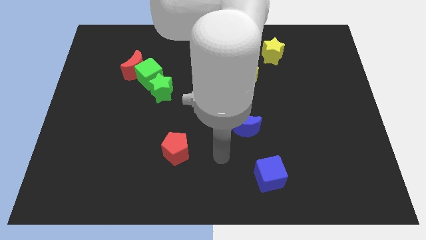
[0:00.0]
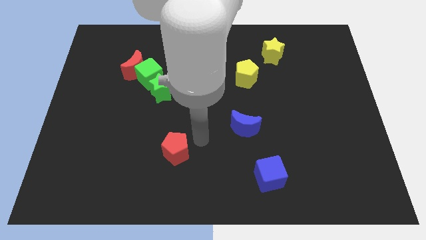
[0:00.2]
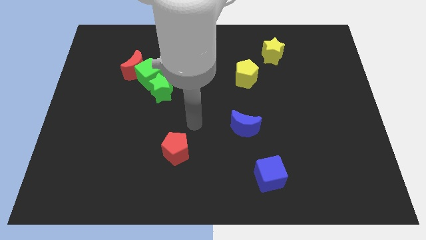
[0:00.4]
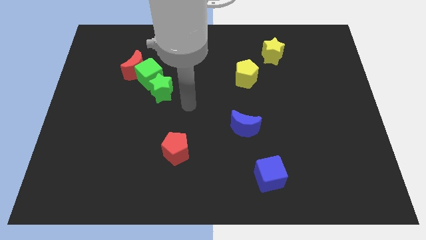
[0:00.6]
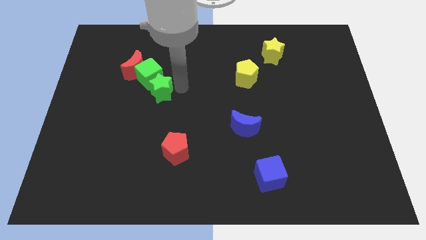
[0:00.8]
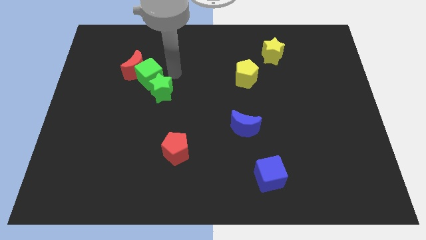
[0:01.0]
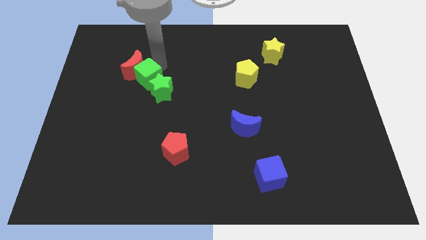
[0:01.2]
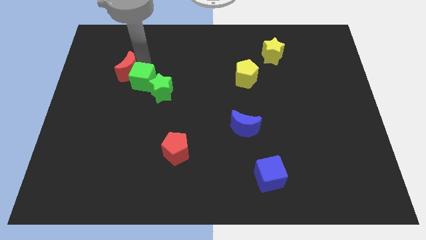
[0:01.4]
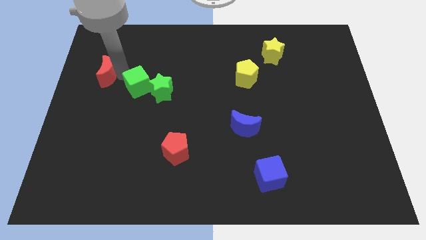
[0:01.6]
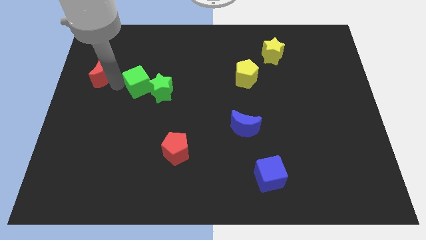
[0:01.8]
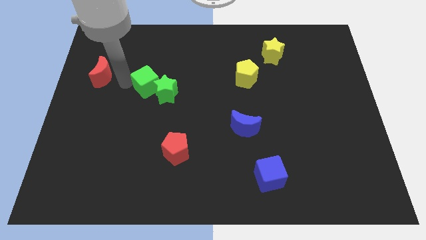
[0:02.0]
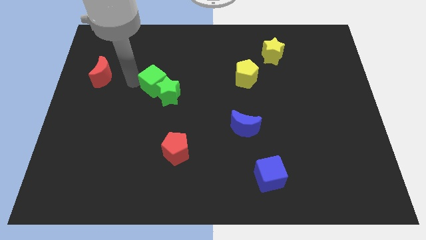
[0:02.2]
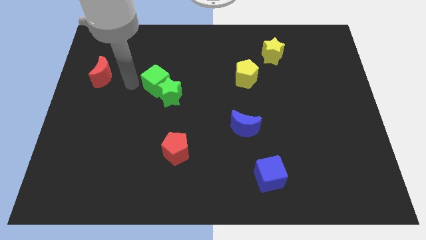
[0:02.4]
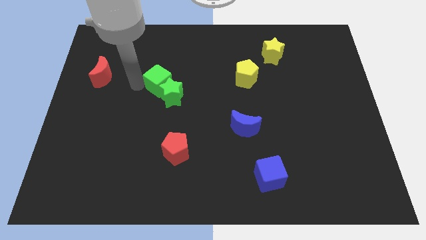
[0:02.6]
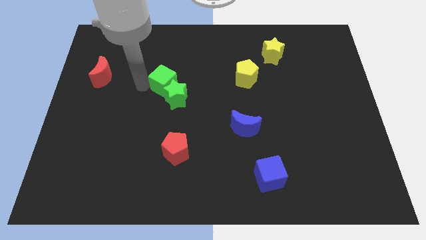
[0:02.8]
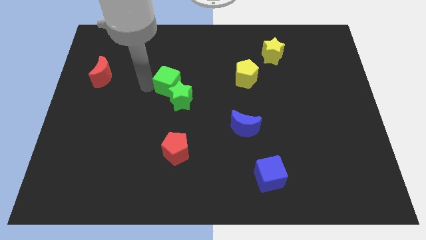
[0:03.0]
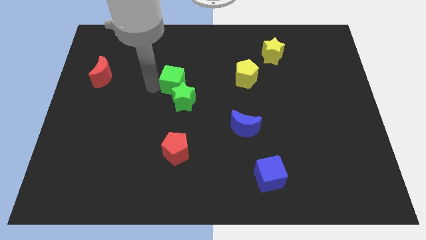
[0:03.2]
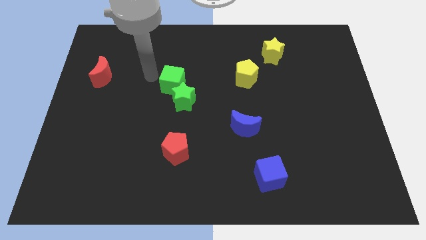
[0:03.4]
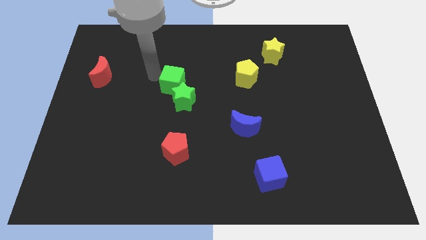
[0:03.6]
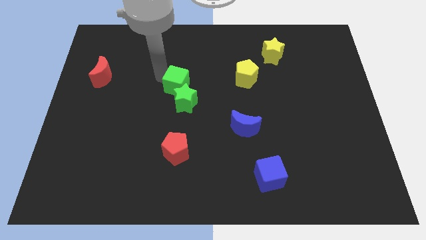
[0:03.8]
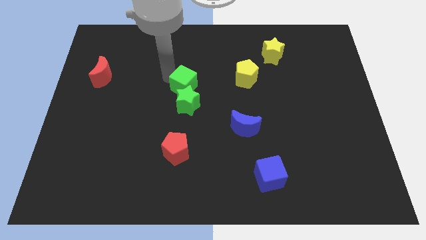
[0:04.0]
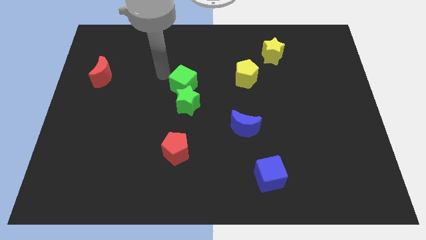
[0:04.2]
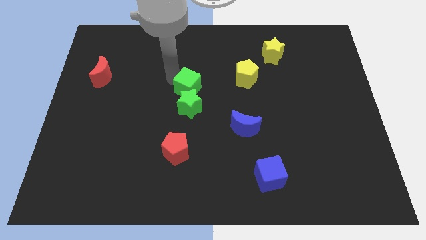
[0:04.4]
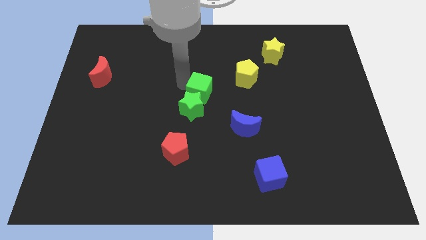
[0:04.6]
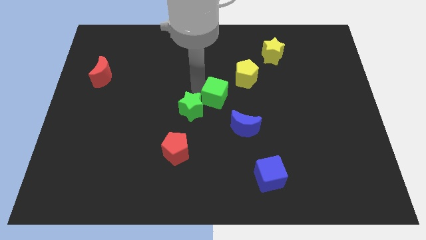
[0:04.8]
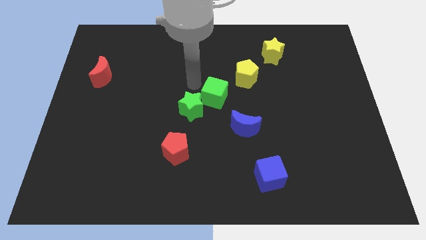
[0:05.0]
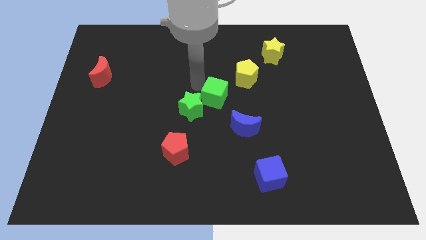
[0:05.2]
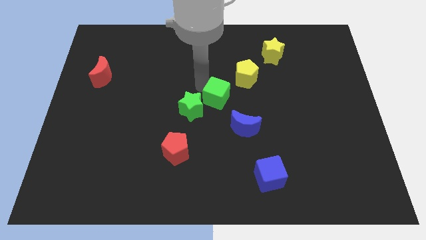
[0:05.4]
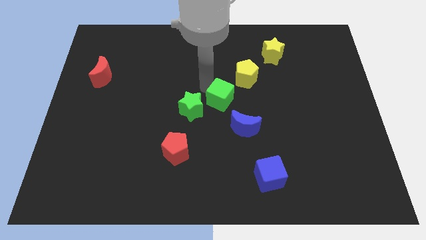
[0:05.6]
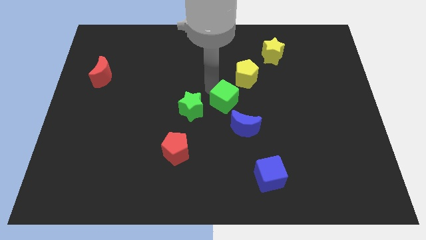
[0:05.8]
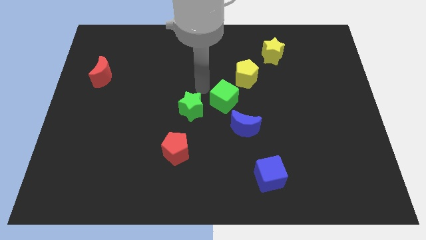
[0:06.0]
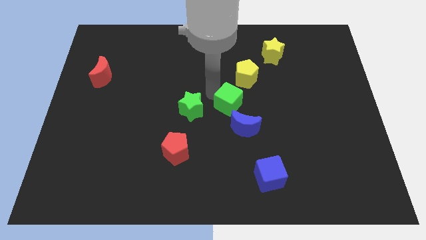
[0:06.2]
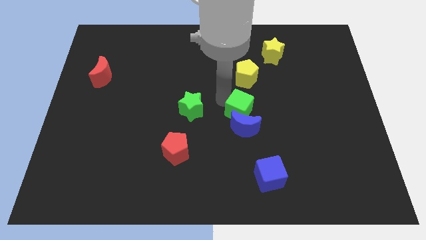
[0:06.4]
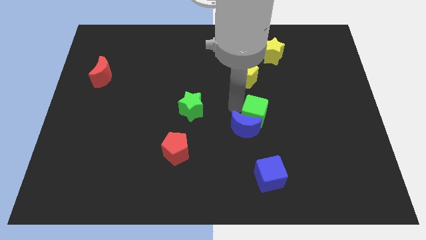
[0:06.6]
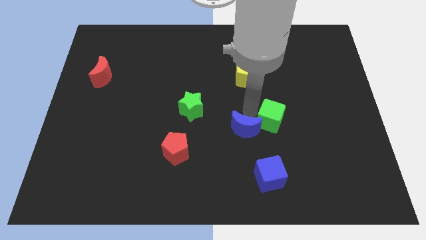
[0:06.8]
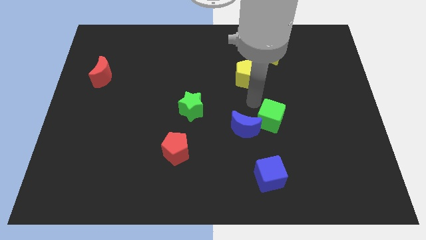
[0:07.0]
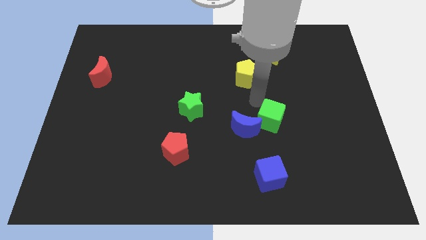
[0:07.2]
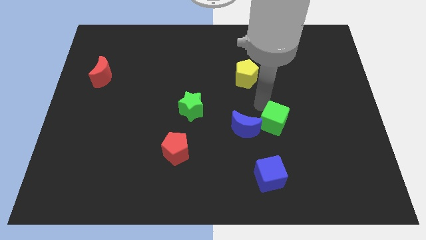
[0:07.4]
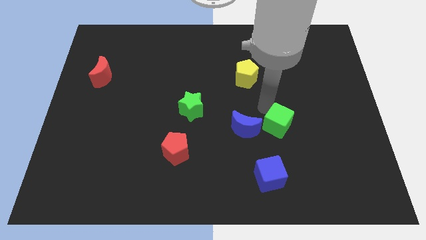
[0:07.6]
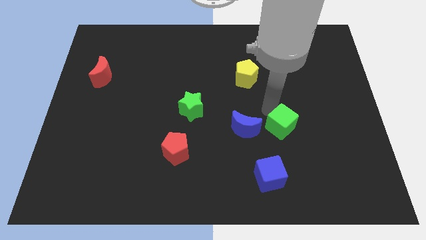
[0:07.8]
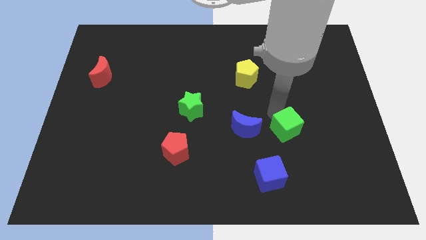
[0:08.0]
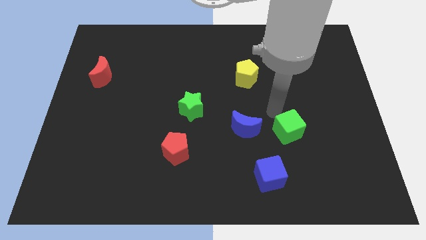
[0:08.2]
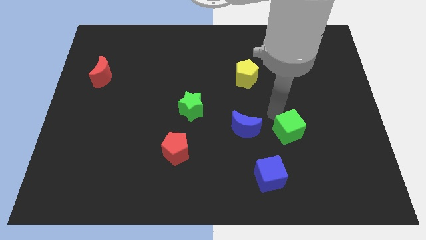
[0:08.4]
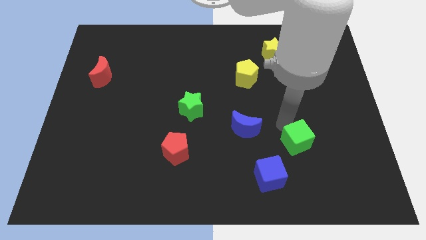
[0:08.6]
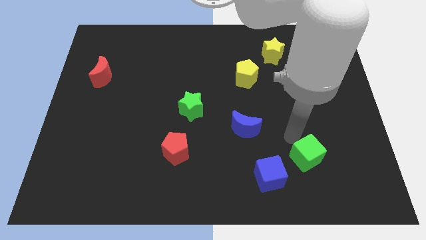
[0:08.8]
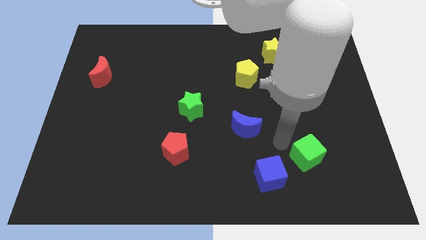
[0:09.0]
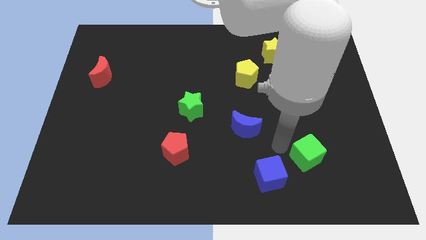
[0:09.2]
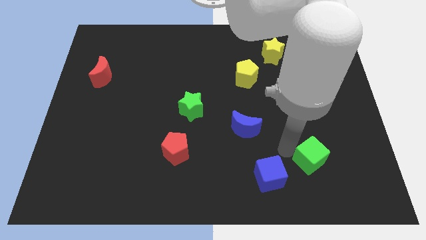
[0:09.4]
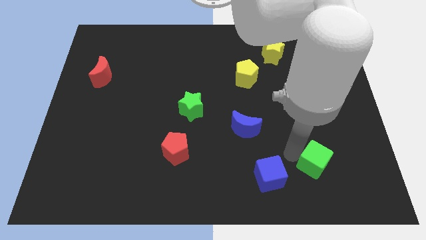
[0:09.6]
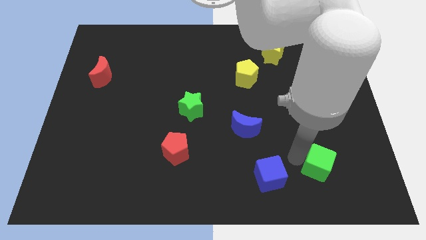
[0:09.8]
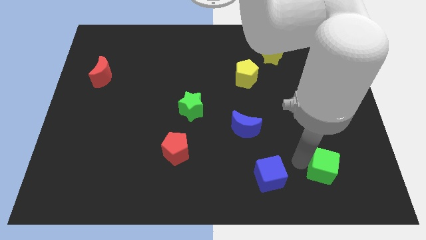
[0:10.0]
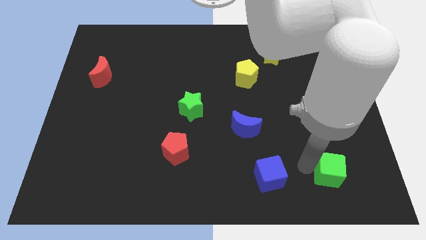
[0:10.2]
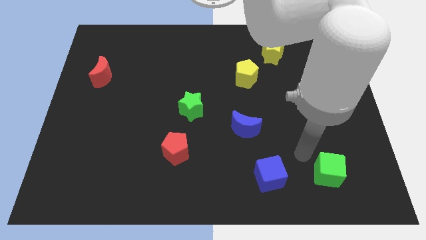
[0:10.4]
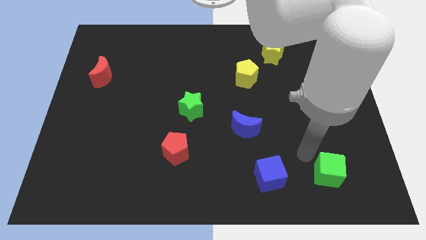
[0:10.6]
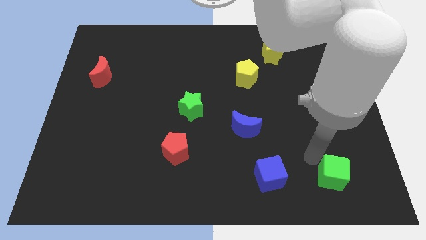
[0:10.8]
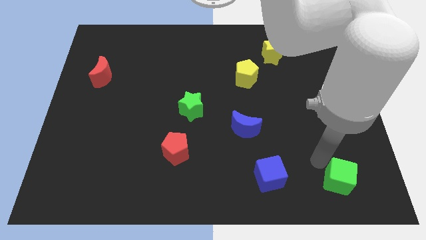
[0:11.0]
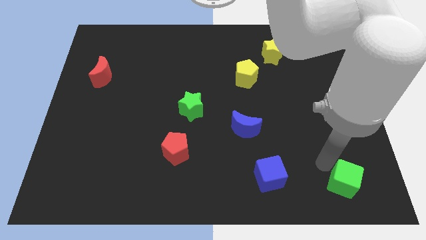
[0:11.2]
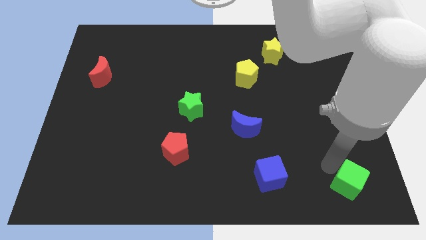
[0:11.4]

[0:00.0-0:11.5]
put the green cube to the bottom right

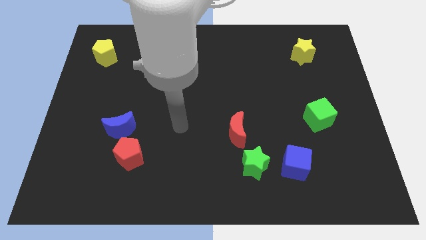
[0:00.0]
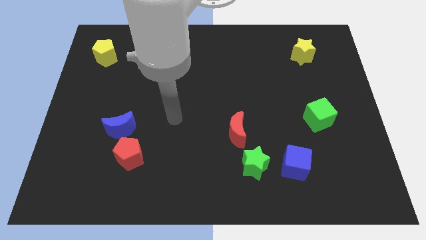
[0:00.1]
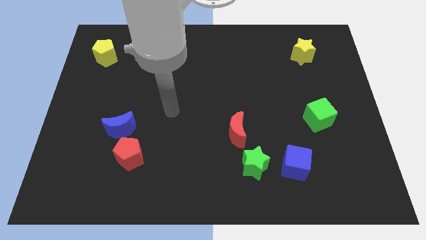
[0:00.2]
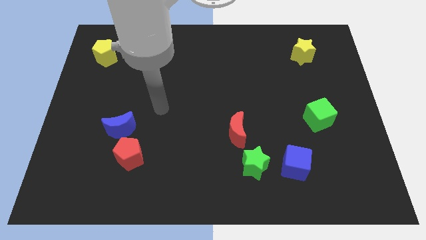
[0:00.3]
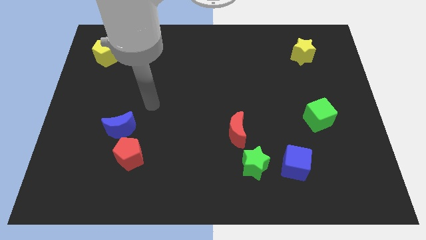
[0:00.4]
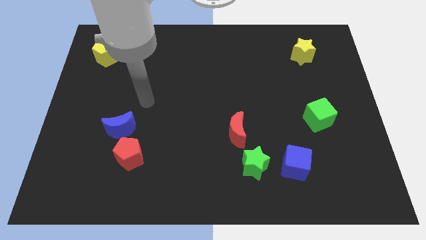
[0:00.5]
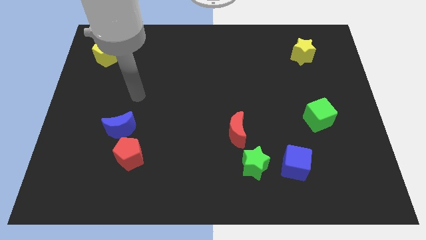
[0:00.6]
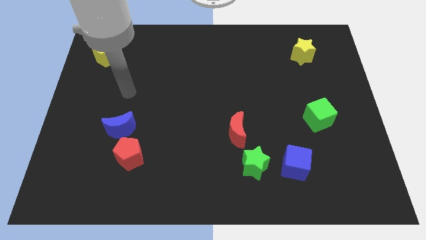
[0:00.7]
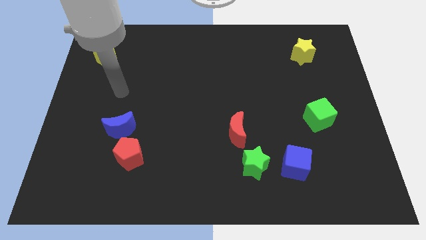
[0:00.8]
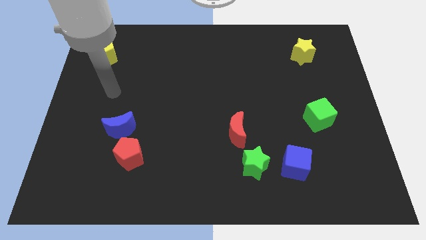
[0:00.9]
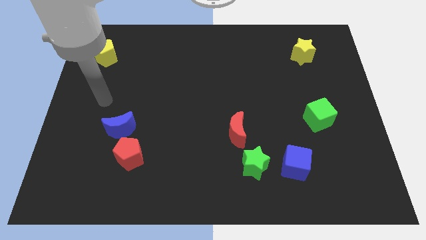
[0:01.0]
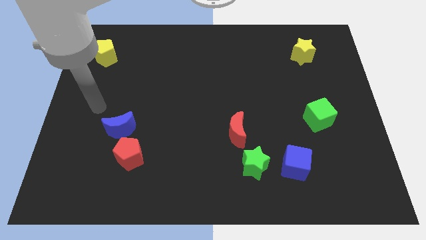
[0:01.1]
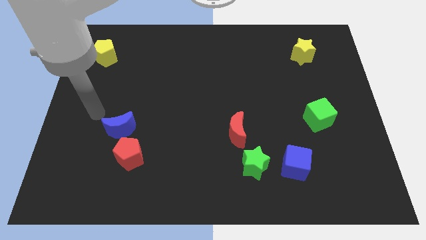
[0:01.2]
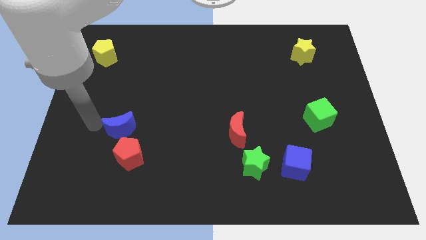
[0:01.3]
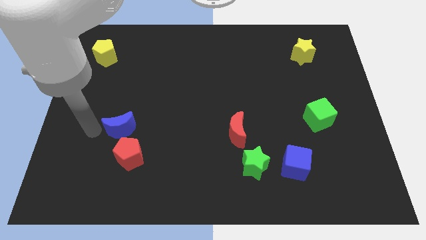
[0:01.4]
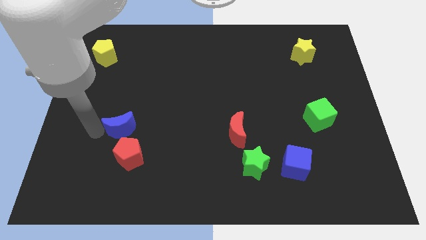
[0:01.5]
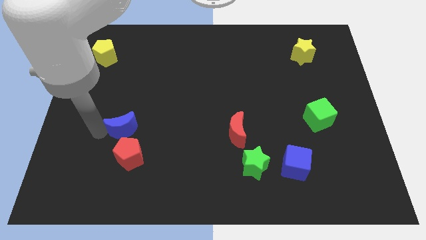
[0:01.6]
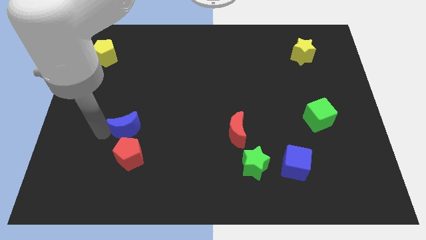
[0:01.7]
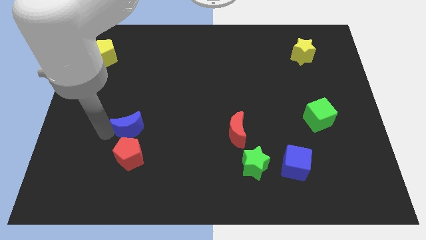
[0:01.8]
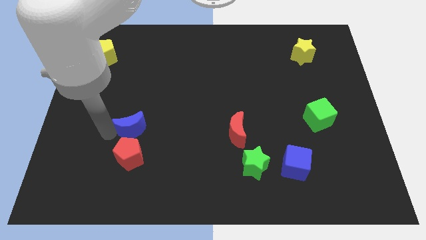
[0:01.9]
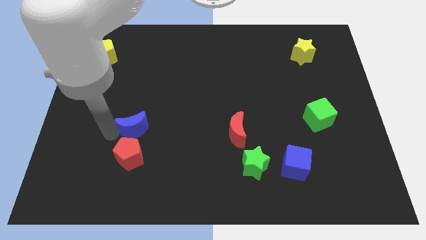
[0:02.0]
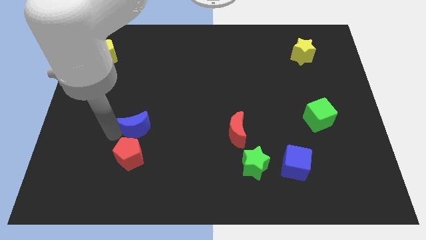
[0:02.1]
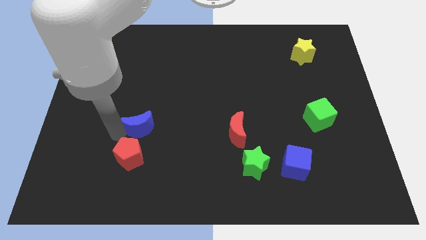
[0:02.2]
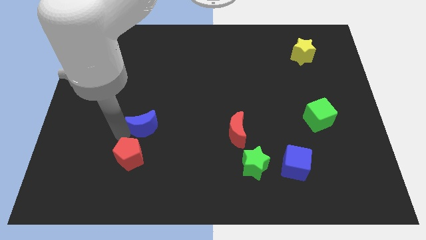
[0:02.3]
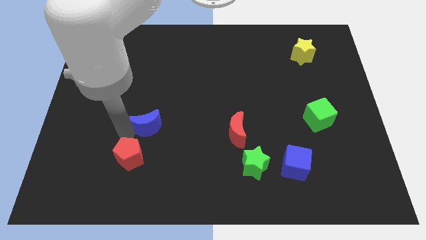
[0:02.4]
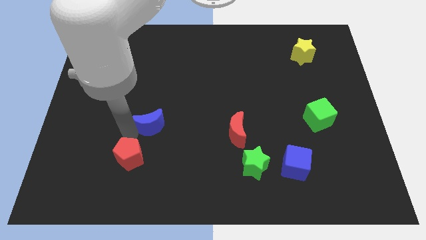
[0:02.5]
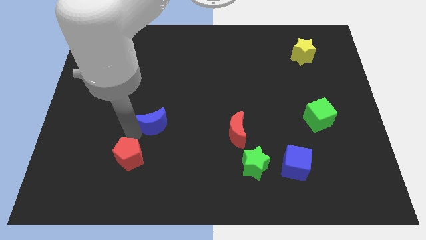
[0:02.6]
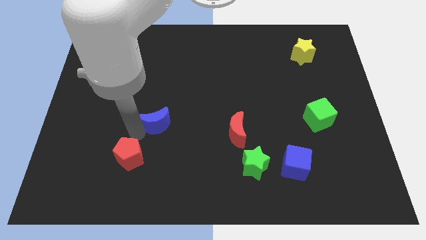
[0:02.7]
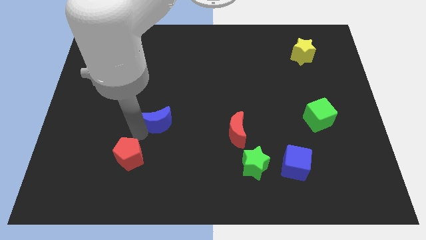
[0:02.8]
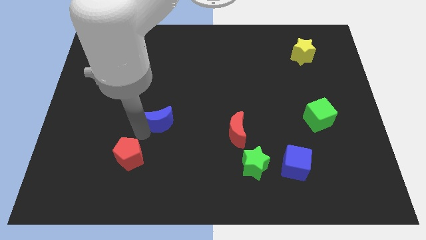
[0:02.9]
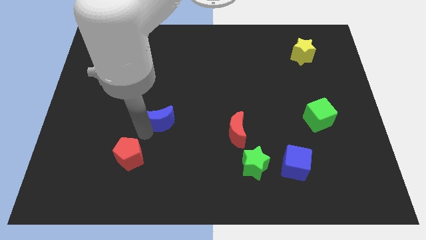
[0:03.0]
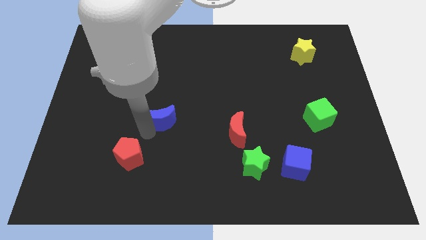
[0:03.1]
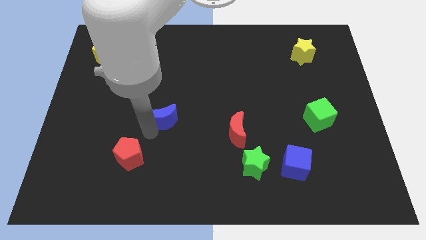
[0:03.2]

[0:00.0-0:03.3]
slide the blue moon to the center of the board
